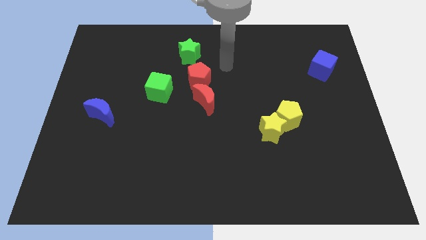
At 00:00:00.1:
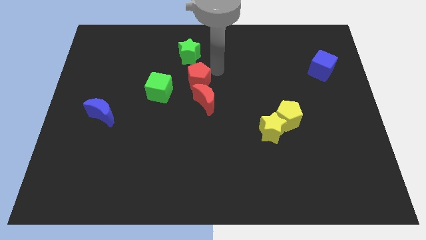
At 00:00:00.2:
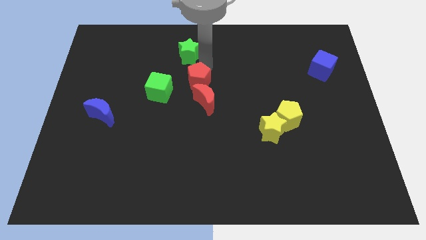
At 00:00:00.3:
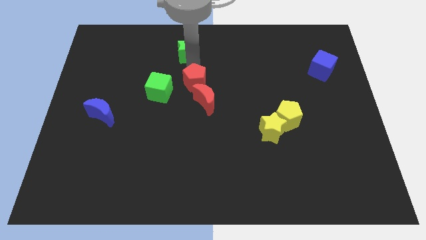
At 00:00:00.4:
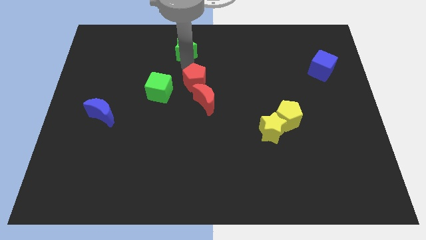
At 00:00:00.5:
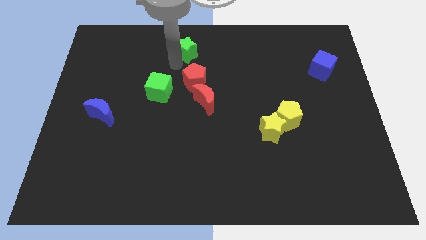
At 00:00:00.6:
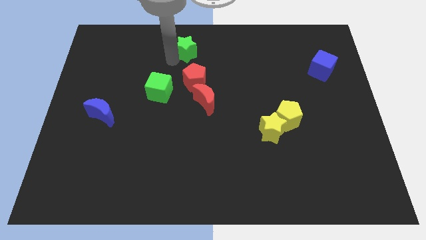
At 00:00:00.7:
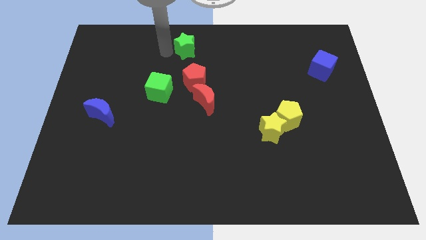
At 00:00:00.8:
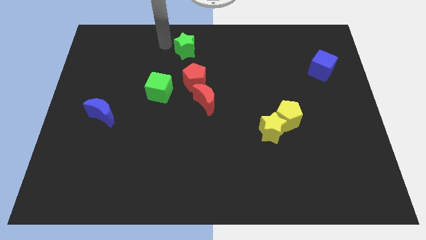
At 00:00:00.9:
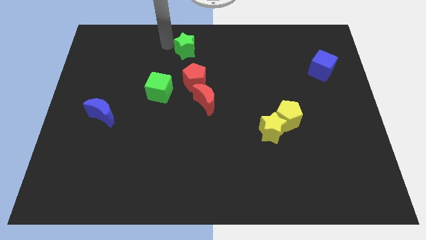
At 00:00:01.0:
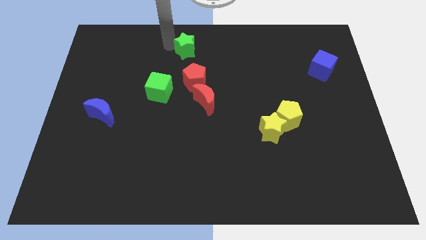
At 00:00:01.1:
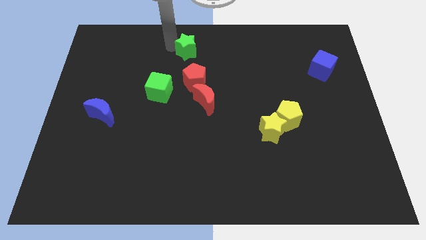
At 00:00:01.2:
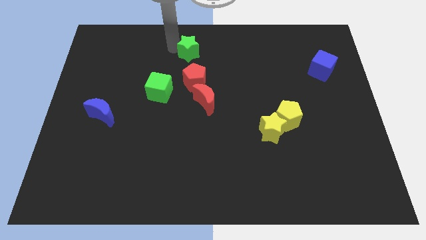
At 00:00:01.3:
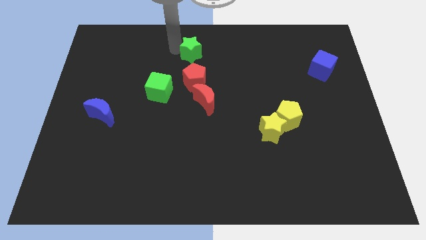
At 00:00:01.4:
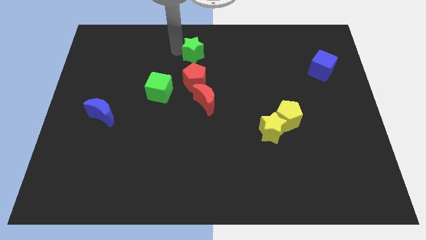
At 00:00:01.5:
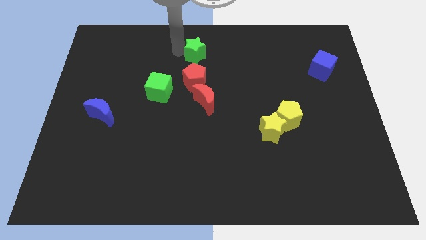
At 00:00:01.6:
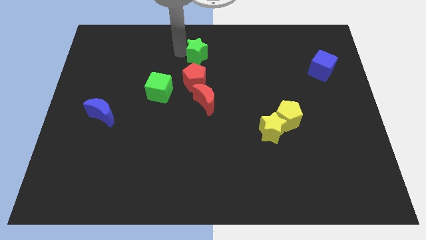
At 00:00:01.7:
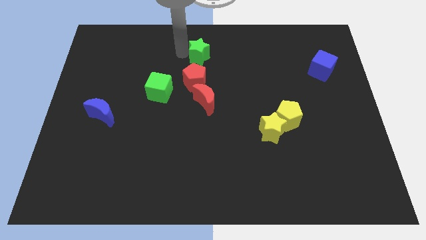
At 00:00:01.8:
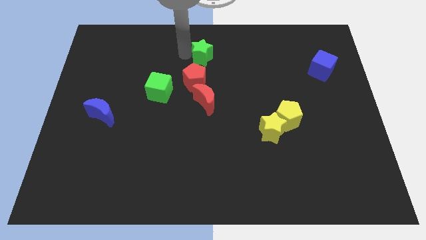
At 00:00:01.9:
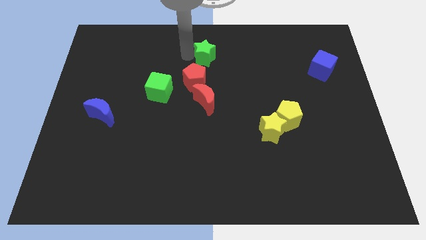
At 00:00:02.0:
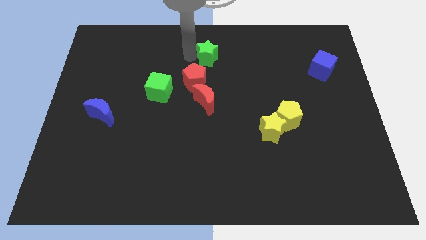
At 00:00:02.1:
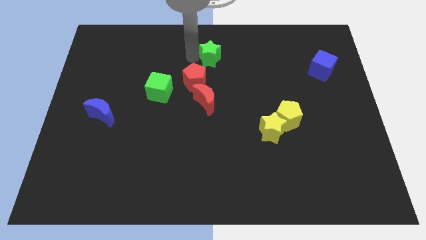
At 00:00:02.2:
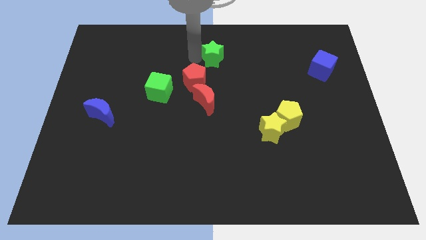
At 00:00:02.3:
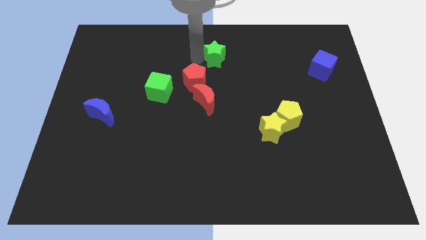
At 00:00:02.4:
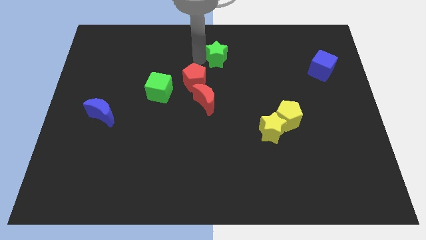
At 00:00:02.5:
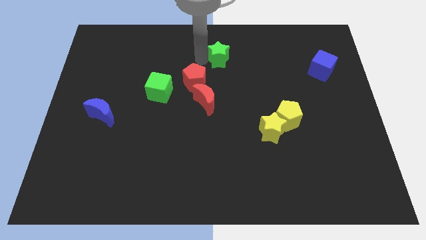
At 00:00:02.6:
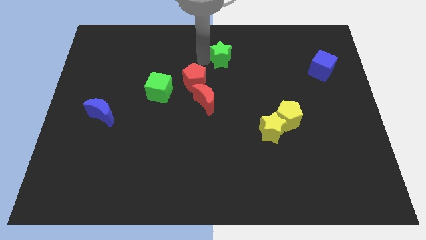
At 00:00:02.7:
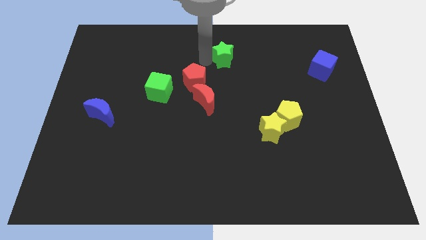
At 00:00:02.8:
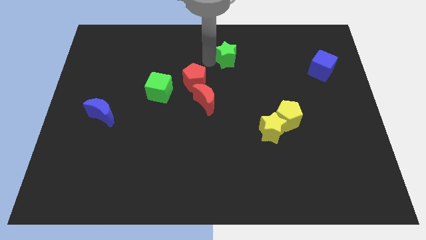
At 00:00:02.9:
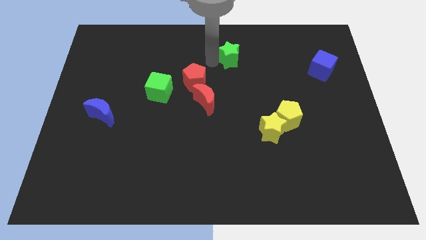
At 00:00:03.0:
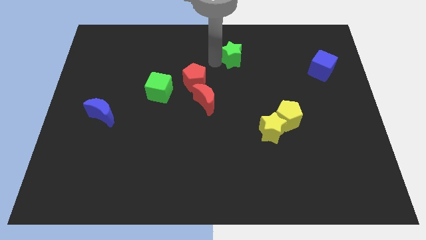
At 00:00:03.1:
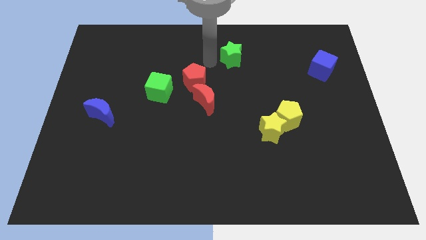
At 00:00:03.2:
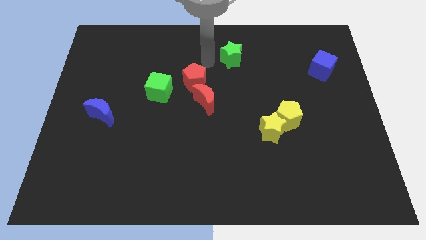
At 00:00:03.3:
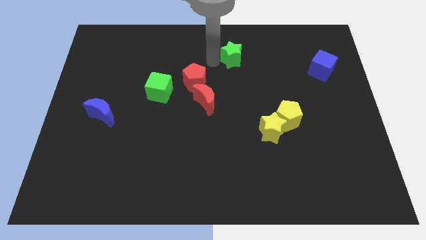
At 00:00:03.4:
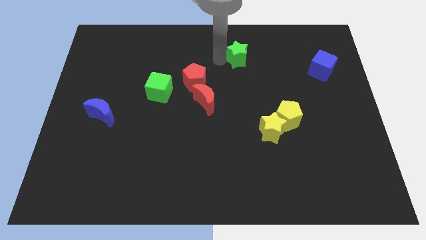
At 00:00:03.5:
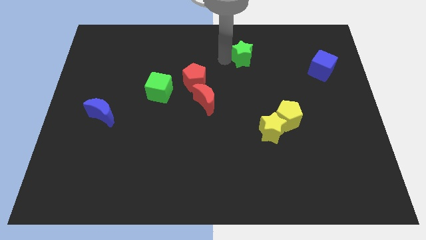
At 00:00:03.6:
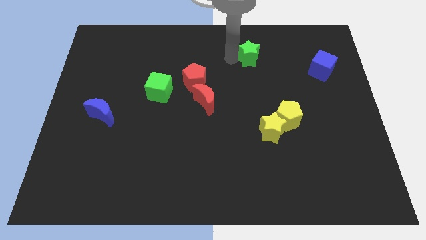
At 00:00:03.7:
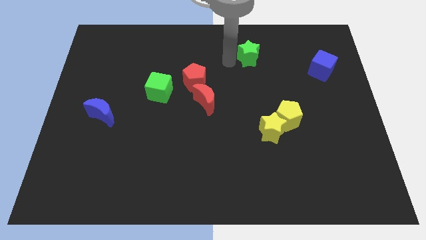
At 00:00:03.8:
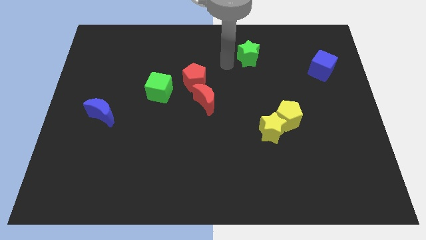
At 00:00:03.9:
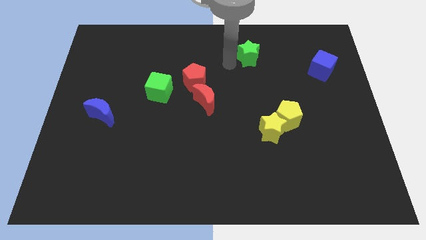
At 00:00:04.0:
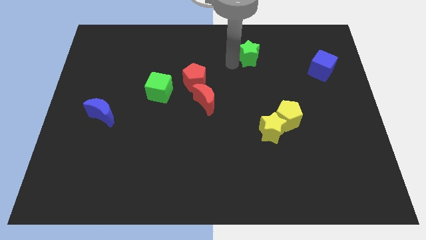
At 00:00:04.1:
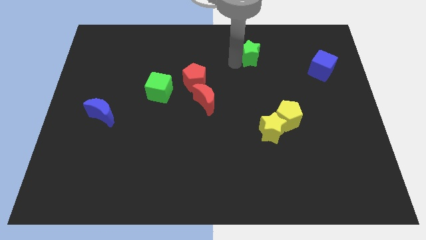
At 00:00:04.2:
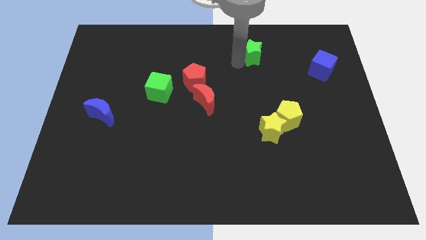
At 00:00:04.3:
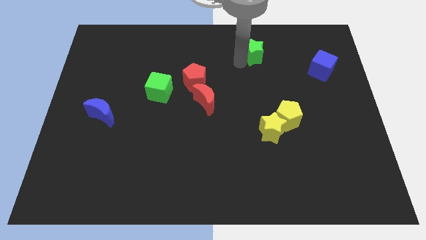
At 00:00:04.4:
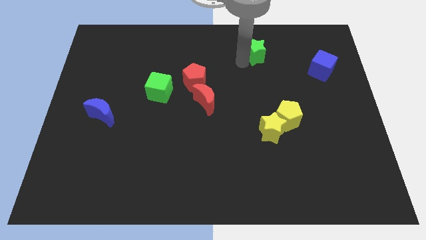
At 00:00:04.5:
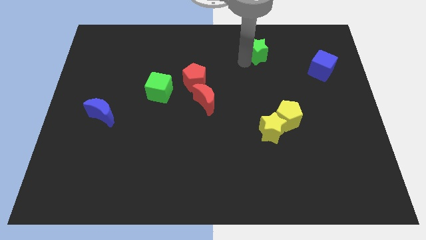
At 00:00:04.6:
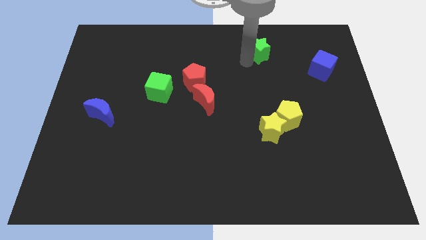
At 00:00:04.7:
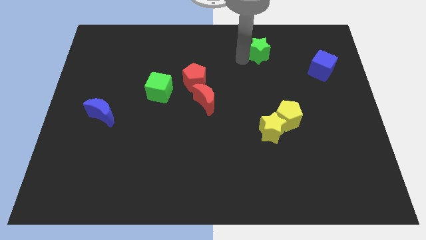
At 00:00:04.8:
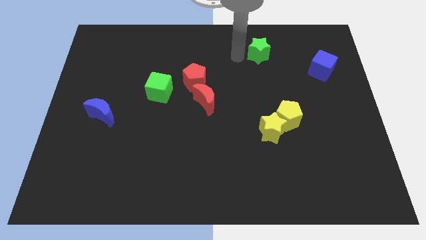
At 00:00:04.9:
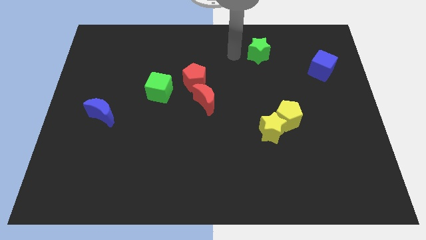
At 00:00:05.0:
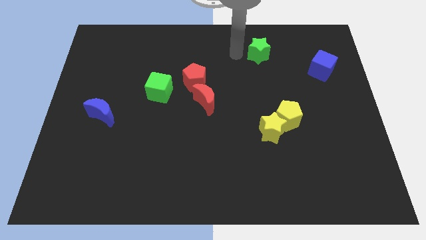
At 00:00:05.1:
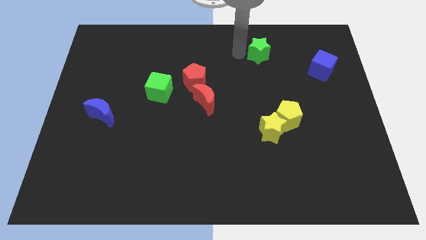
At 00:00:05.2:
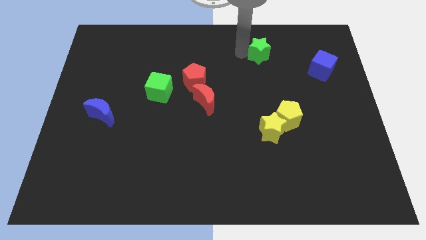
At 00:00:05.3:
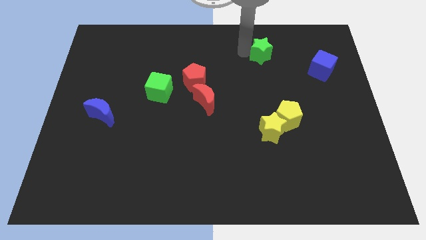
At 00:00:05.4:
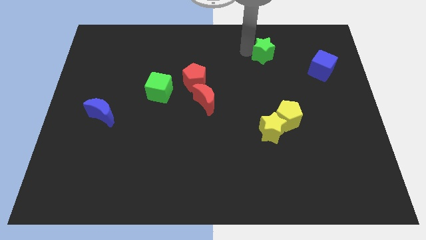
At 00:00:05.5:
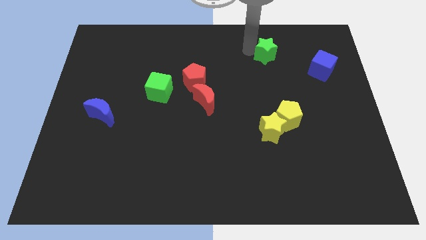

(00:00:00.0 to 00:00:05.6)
slide the green star right

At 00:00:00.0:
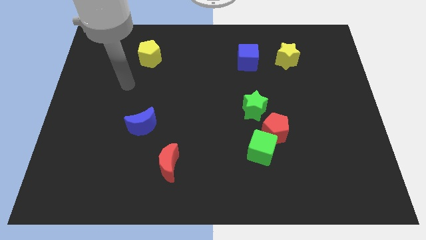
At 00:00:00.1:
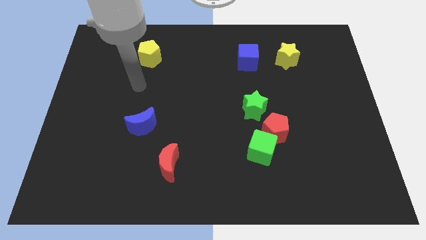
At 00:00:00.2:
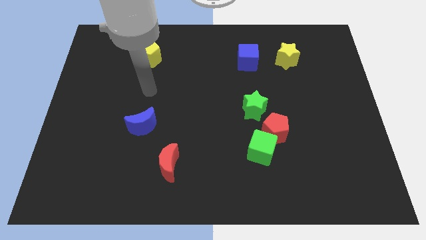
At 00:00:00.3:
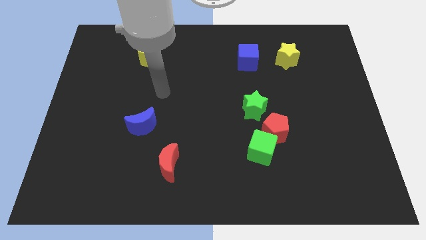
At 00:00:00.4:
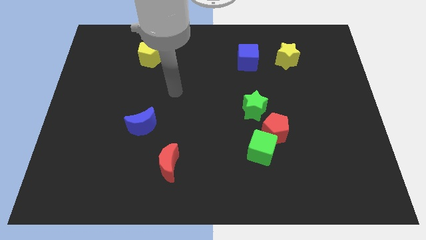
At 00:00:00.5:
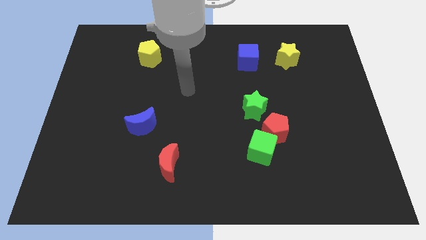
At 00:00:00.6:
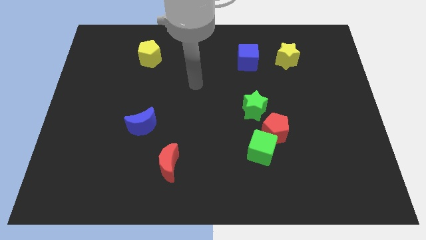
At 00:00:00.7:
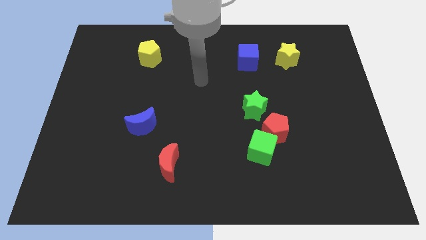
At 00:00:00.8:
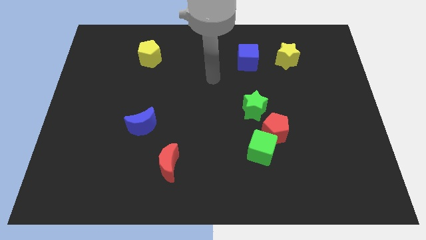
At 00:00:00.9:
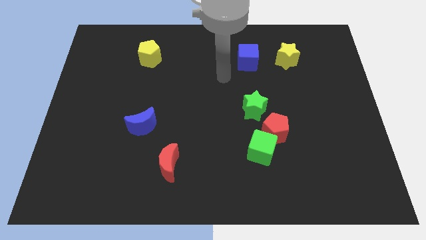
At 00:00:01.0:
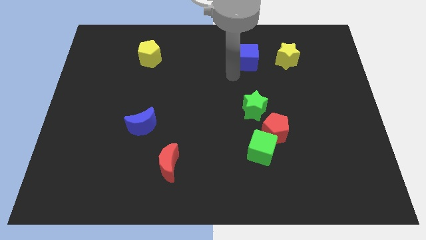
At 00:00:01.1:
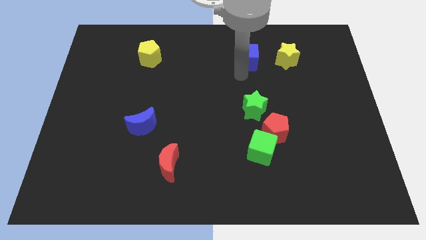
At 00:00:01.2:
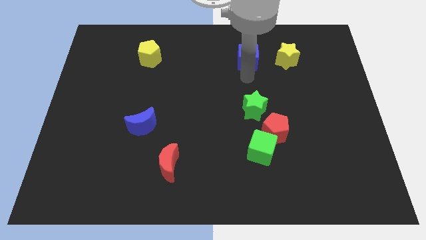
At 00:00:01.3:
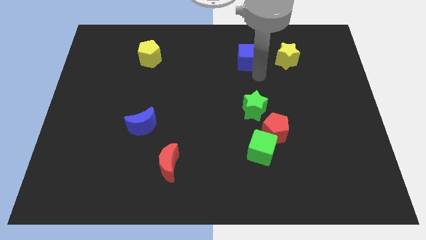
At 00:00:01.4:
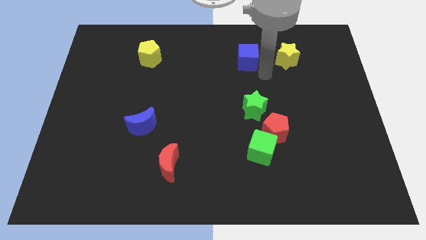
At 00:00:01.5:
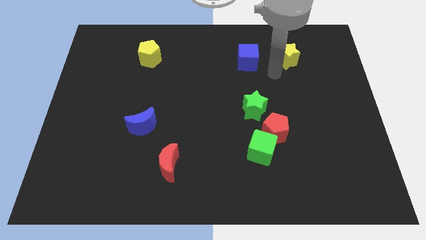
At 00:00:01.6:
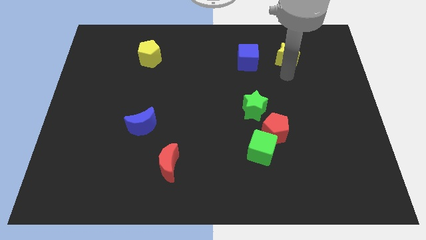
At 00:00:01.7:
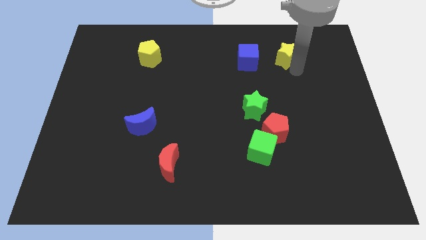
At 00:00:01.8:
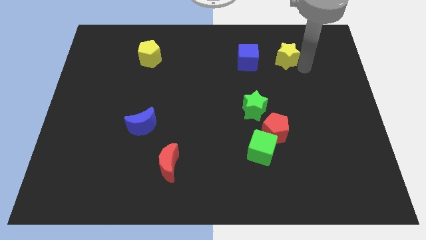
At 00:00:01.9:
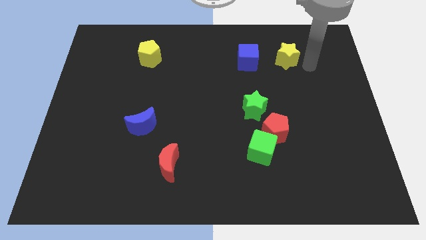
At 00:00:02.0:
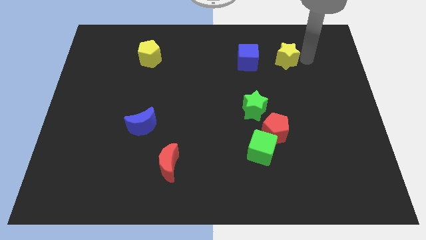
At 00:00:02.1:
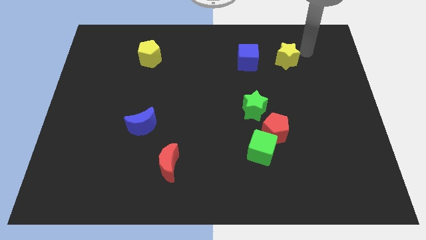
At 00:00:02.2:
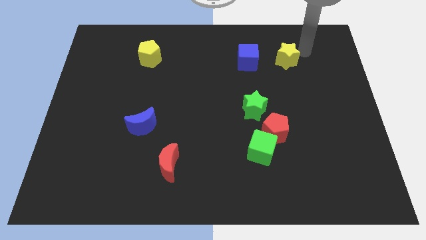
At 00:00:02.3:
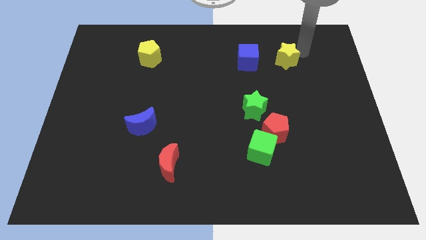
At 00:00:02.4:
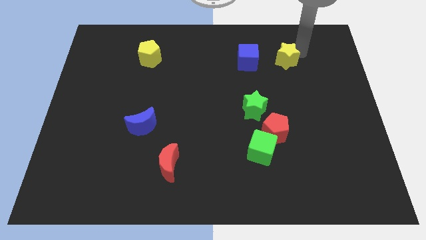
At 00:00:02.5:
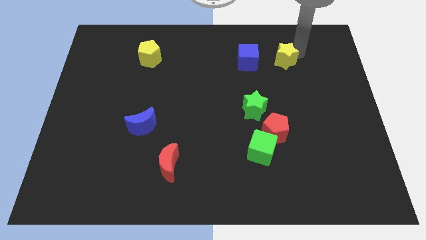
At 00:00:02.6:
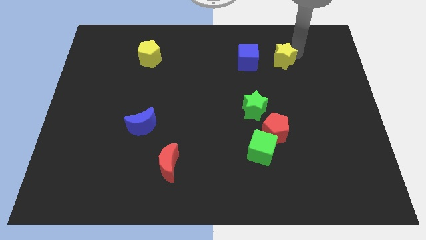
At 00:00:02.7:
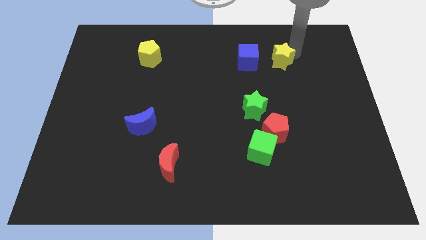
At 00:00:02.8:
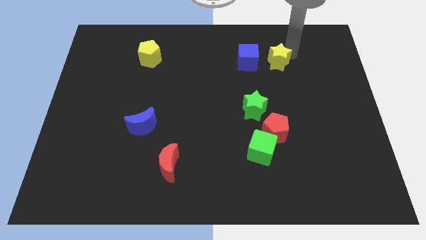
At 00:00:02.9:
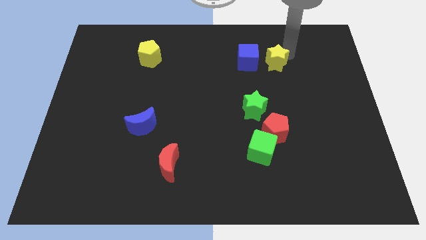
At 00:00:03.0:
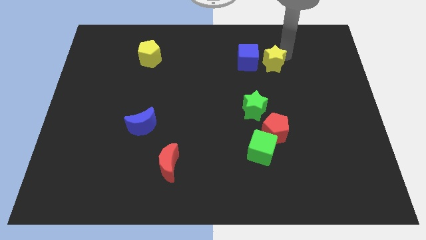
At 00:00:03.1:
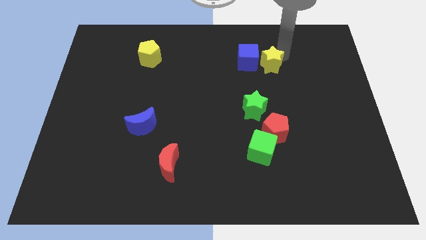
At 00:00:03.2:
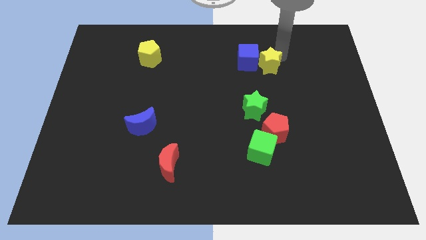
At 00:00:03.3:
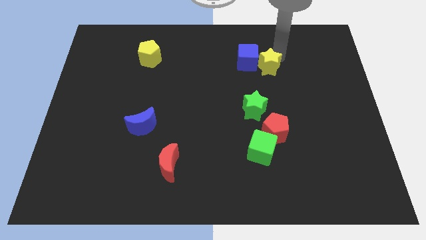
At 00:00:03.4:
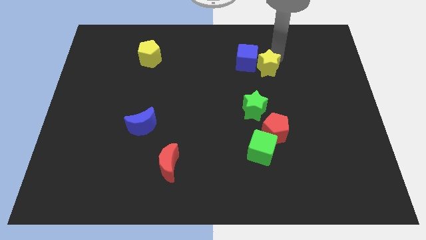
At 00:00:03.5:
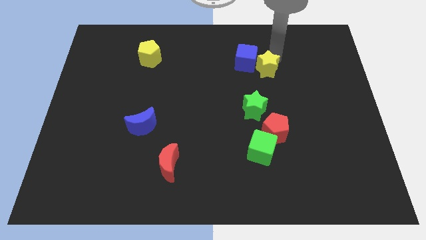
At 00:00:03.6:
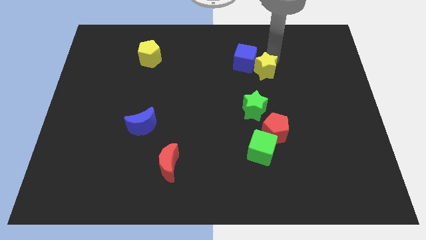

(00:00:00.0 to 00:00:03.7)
push the yellow star down and then left a bit
